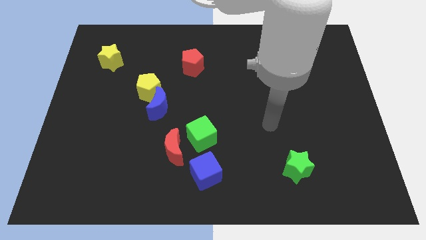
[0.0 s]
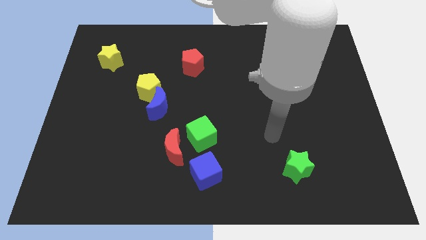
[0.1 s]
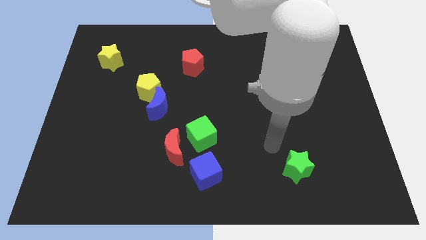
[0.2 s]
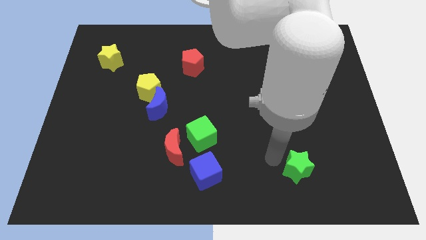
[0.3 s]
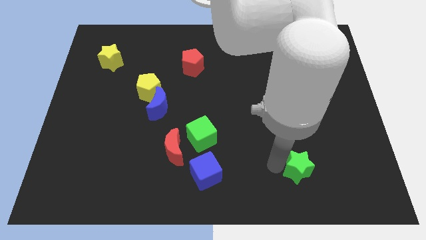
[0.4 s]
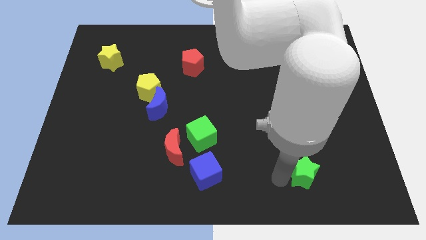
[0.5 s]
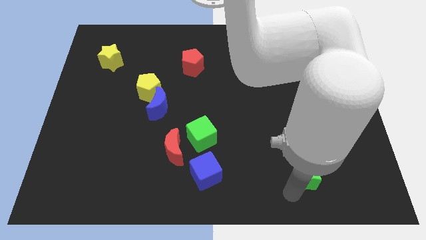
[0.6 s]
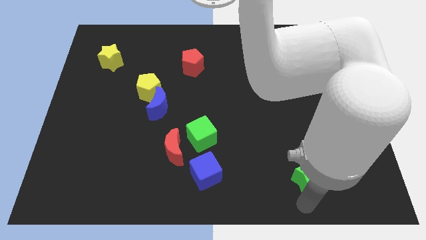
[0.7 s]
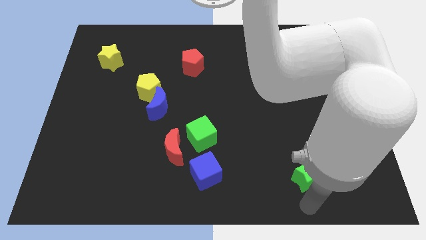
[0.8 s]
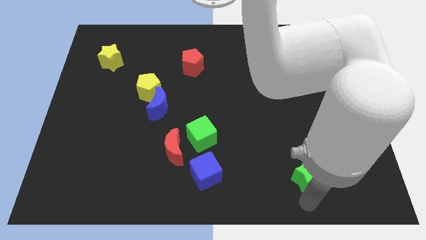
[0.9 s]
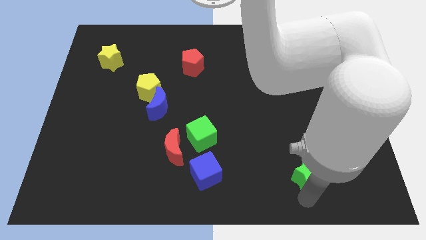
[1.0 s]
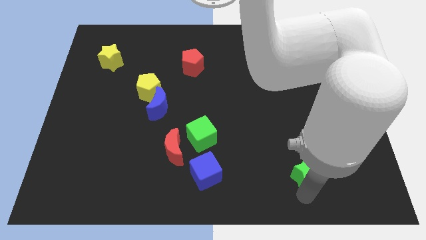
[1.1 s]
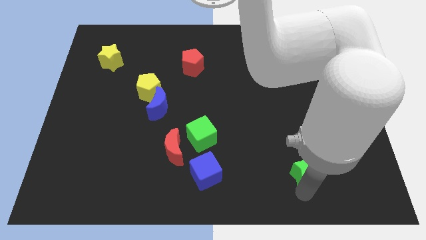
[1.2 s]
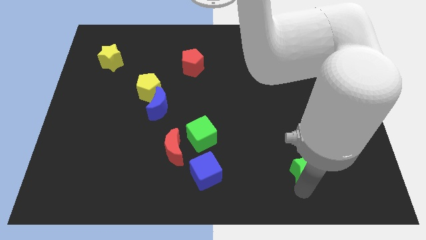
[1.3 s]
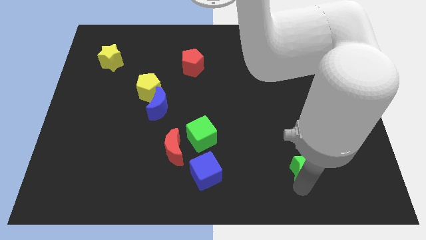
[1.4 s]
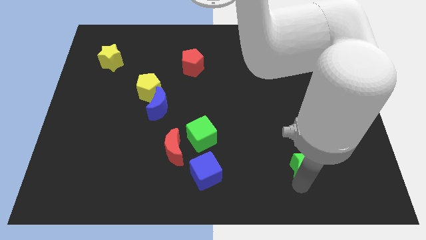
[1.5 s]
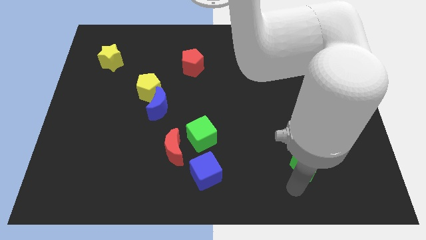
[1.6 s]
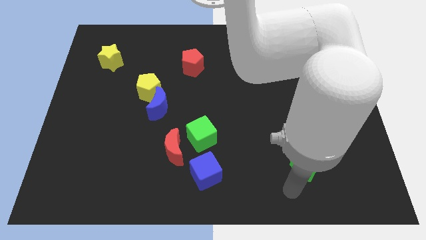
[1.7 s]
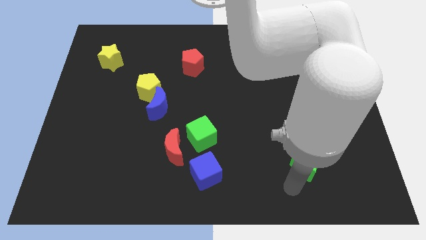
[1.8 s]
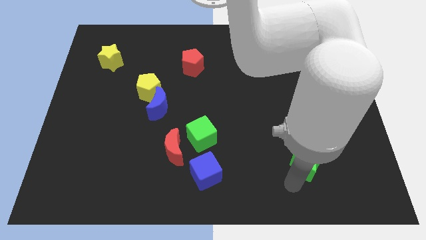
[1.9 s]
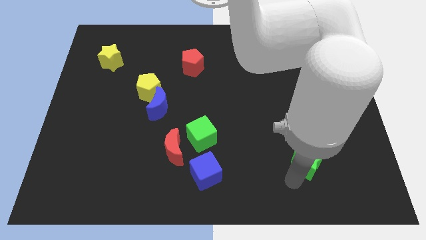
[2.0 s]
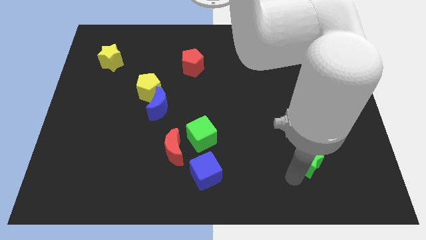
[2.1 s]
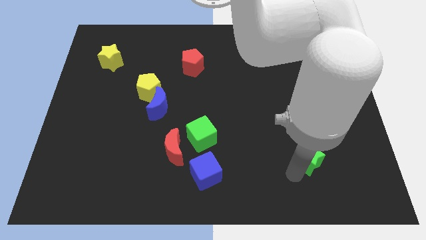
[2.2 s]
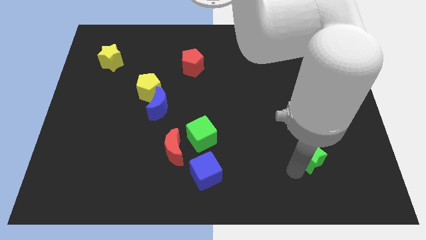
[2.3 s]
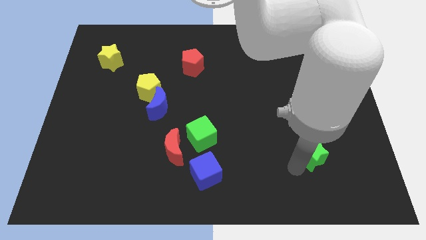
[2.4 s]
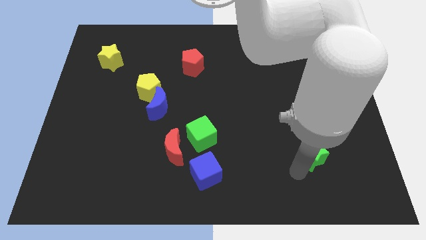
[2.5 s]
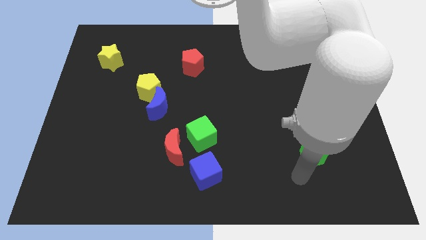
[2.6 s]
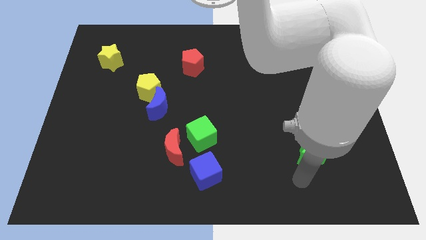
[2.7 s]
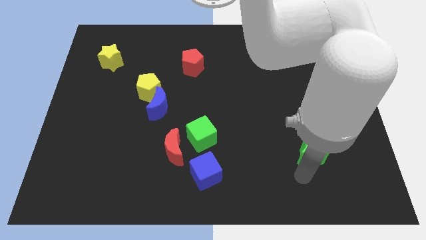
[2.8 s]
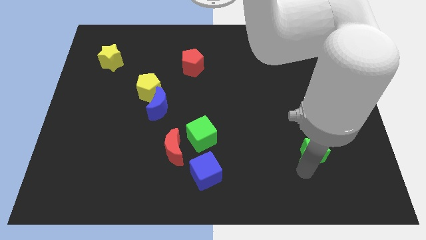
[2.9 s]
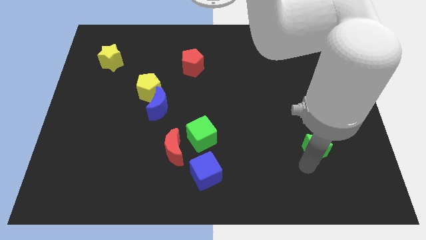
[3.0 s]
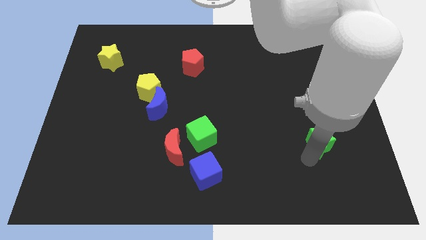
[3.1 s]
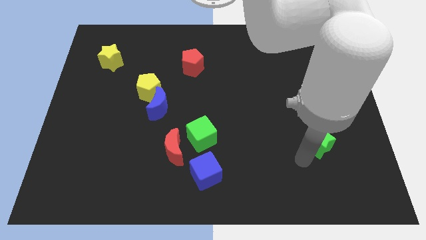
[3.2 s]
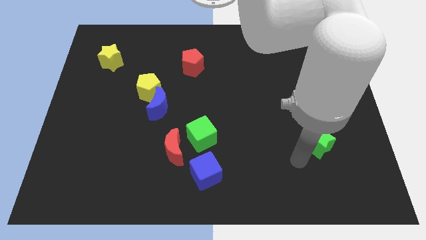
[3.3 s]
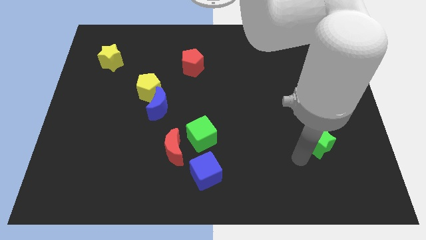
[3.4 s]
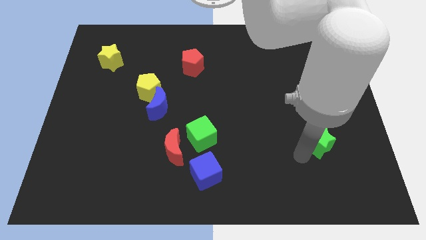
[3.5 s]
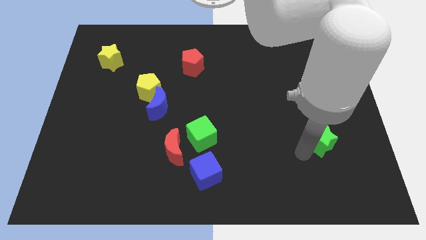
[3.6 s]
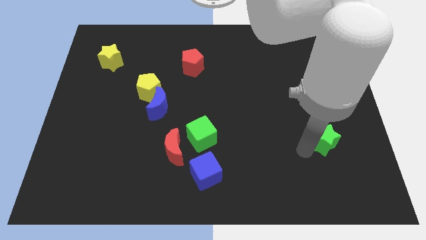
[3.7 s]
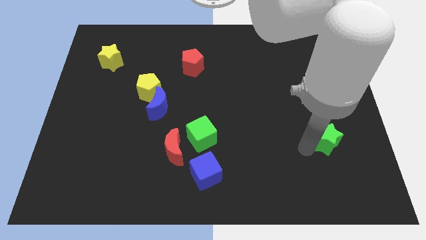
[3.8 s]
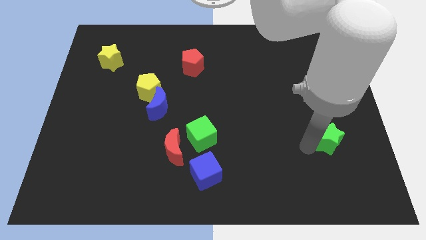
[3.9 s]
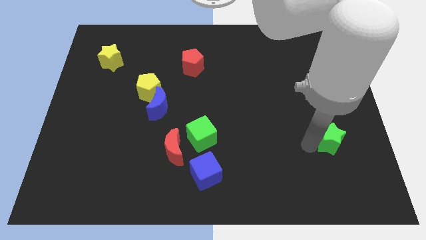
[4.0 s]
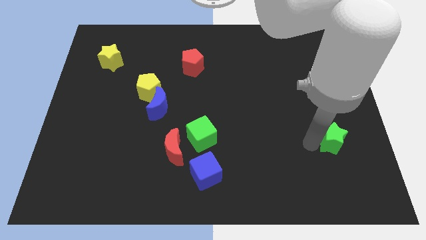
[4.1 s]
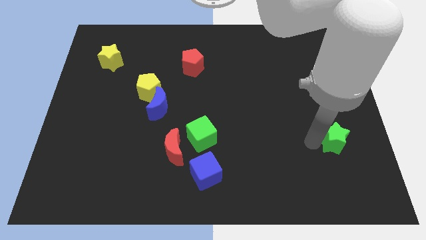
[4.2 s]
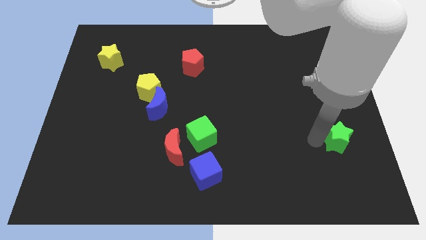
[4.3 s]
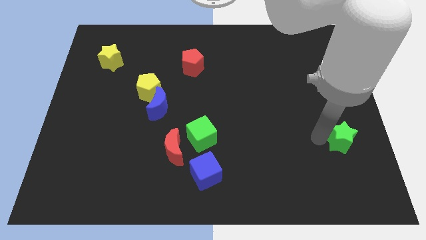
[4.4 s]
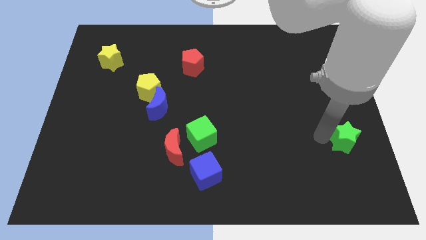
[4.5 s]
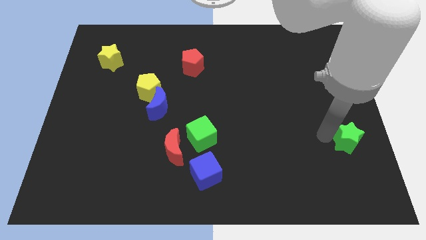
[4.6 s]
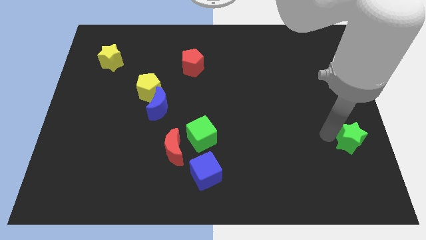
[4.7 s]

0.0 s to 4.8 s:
push the green star to the right side

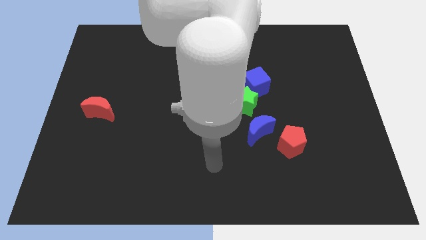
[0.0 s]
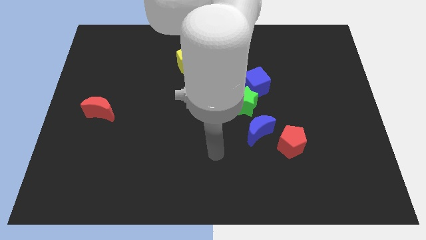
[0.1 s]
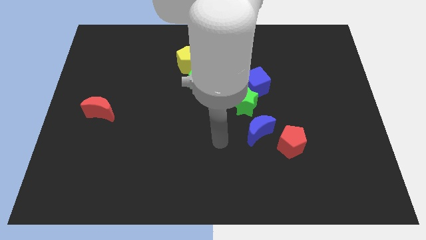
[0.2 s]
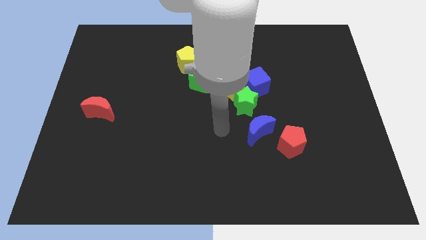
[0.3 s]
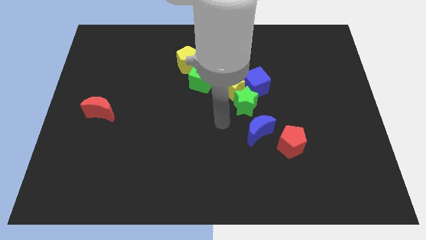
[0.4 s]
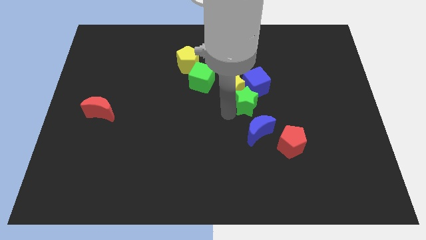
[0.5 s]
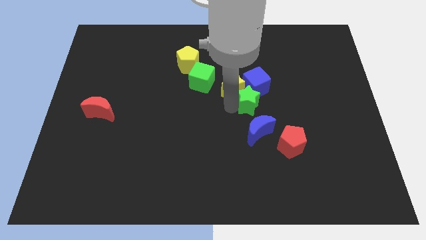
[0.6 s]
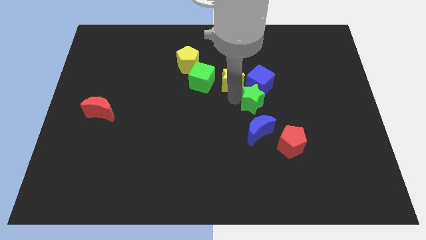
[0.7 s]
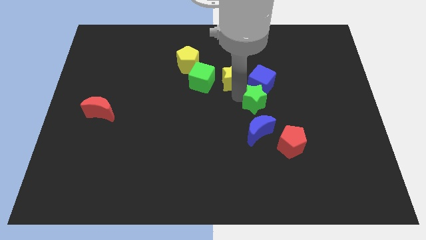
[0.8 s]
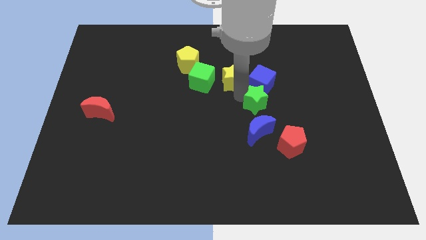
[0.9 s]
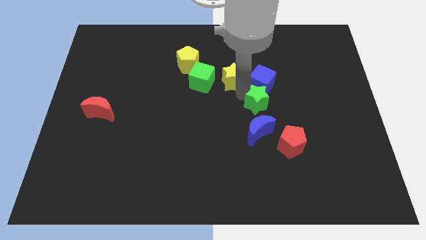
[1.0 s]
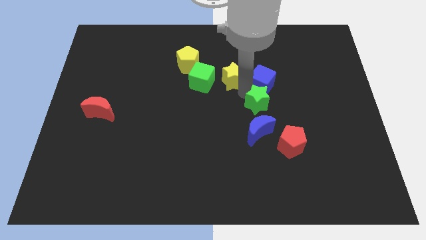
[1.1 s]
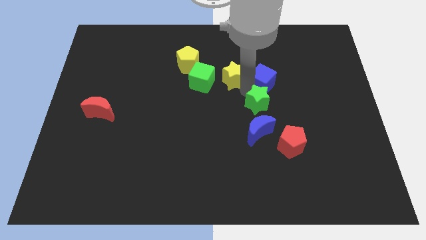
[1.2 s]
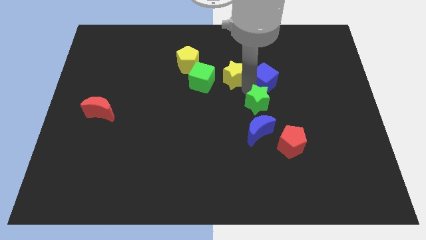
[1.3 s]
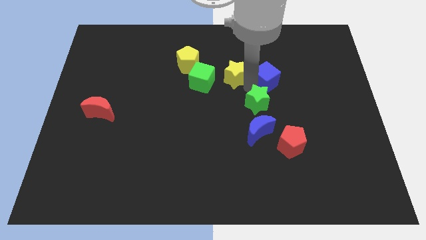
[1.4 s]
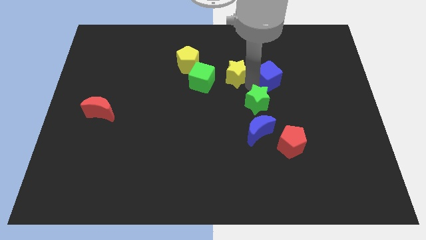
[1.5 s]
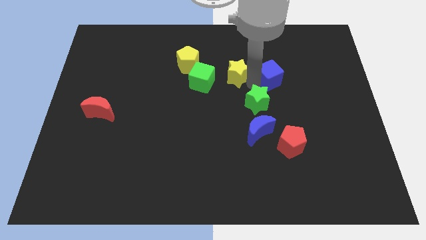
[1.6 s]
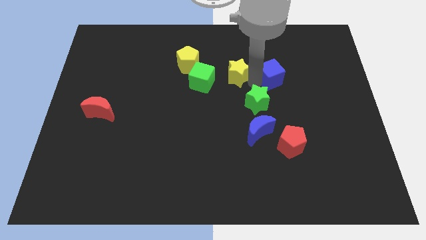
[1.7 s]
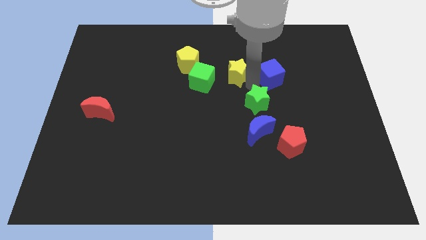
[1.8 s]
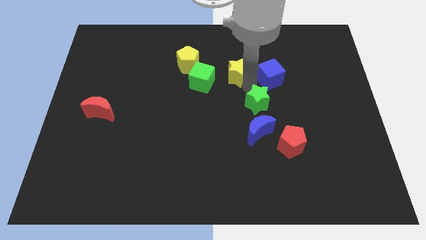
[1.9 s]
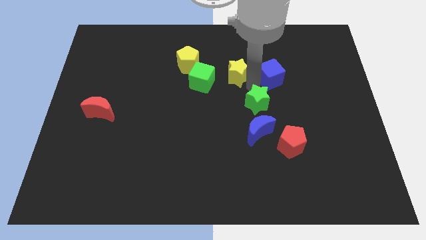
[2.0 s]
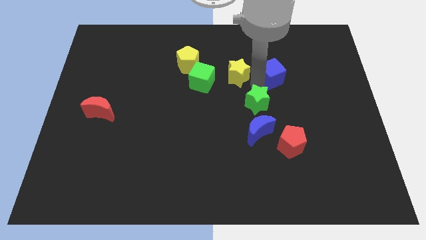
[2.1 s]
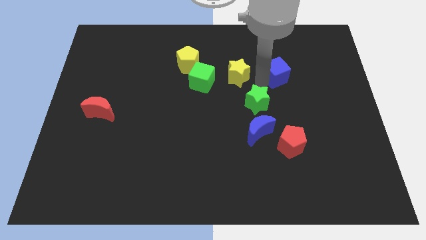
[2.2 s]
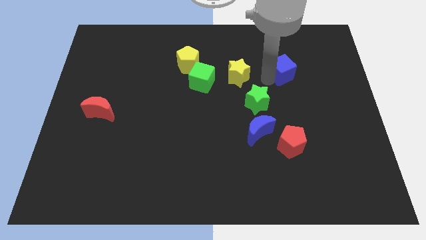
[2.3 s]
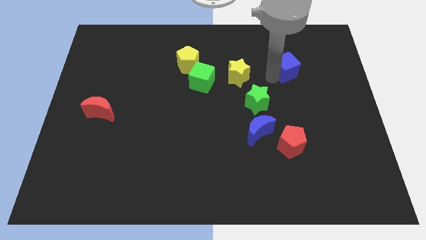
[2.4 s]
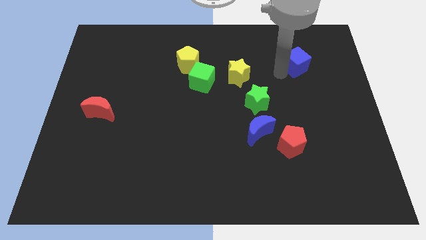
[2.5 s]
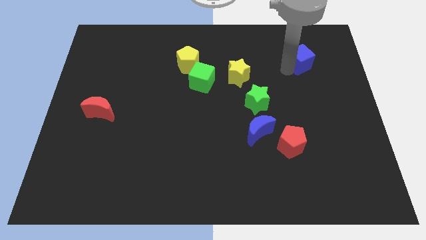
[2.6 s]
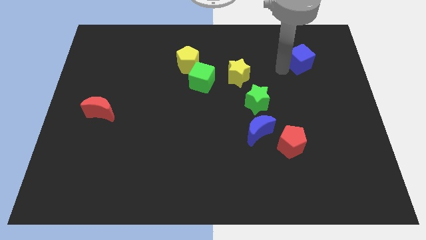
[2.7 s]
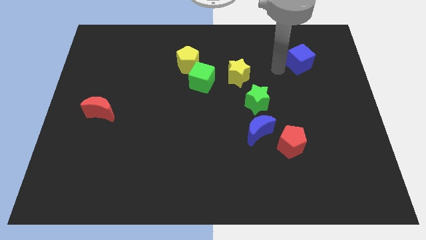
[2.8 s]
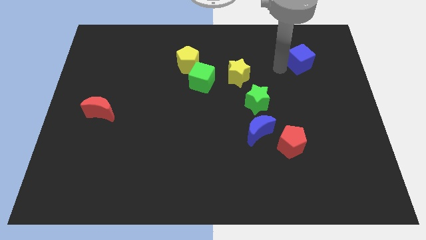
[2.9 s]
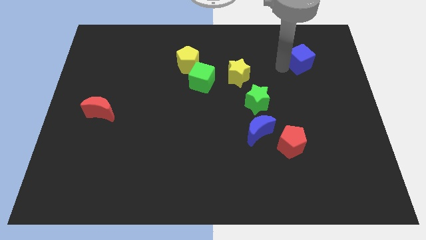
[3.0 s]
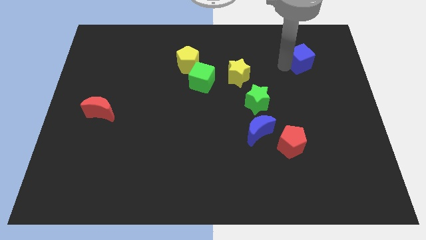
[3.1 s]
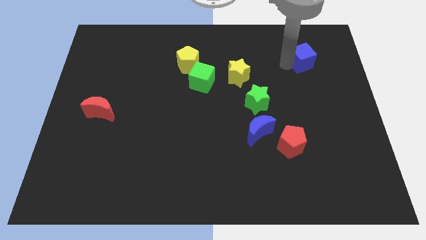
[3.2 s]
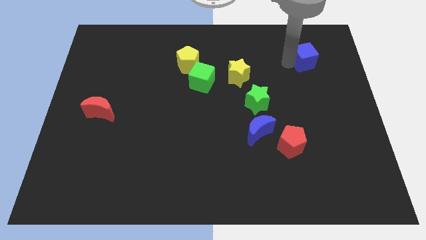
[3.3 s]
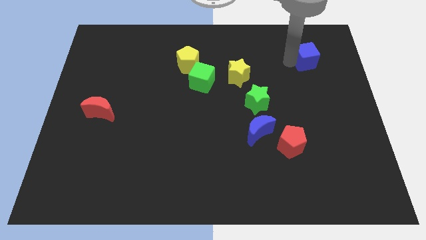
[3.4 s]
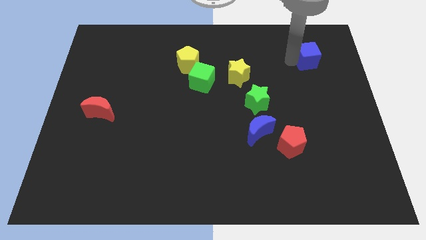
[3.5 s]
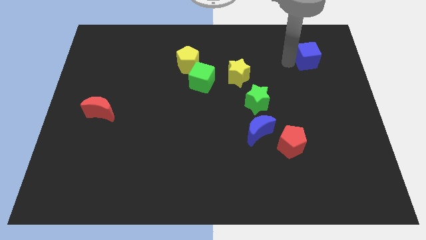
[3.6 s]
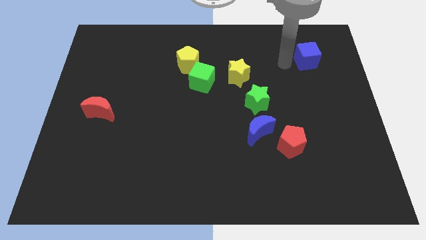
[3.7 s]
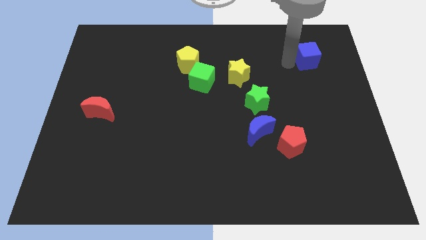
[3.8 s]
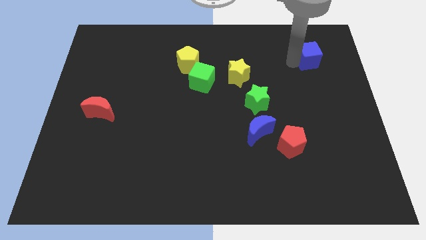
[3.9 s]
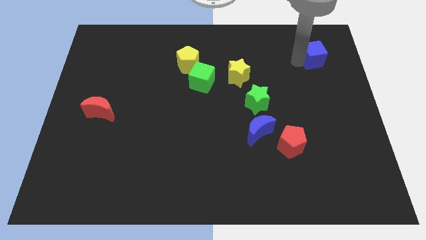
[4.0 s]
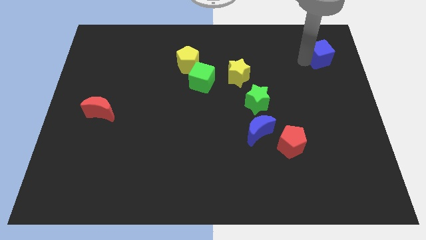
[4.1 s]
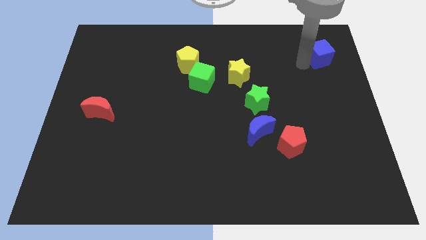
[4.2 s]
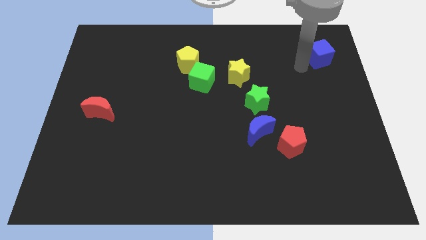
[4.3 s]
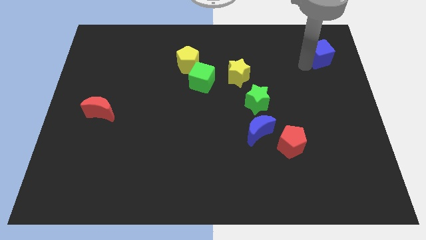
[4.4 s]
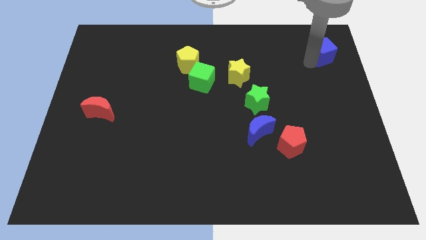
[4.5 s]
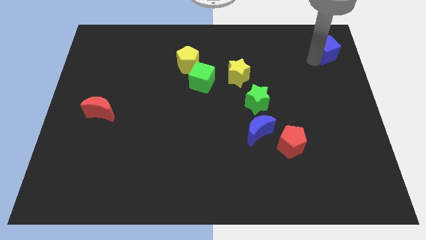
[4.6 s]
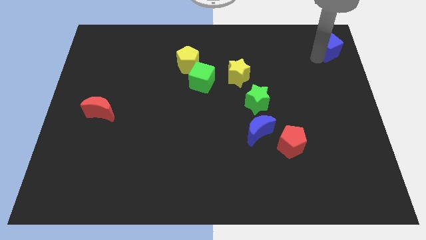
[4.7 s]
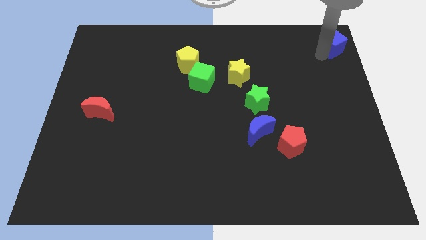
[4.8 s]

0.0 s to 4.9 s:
put the blue cube to the top right
